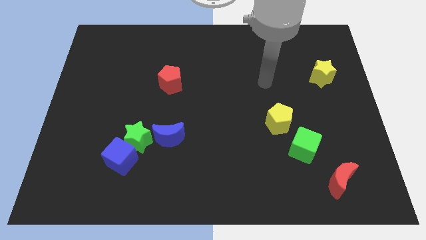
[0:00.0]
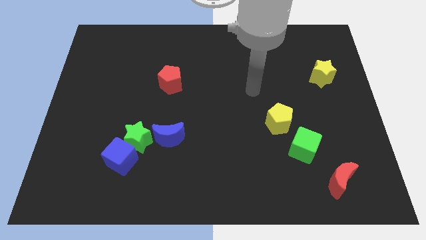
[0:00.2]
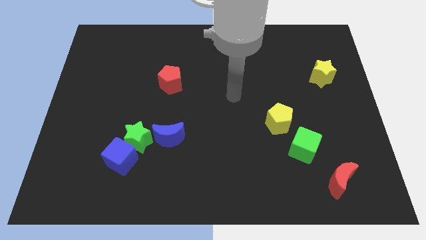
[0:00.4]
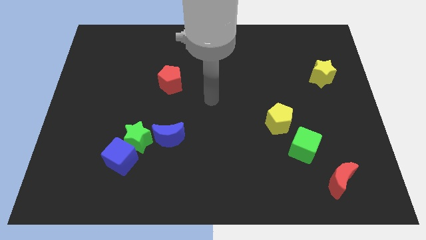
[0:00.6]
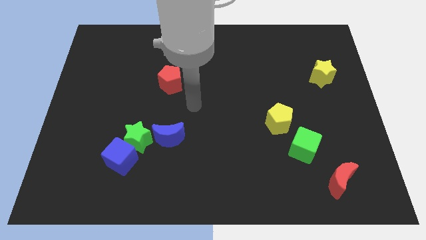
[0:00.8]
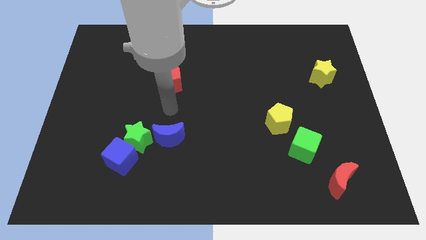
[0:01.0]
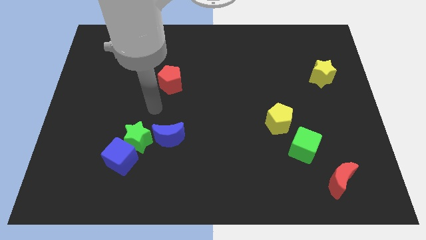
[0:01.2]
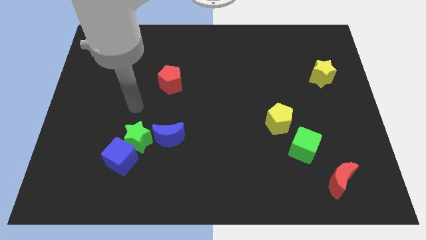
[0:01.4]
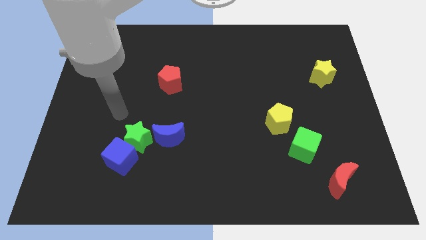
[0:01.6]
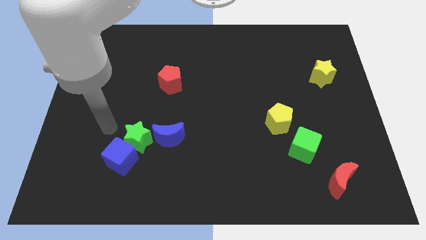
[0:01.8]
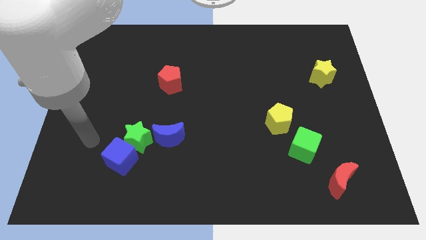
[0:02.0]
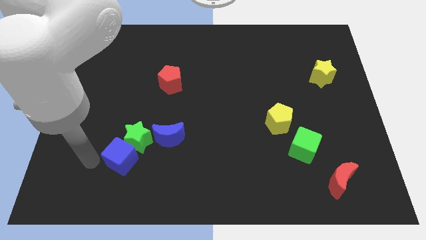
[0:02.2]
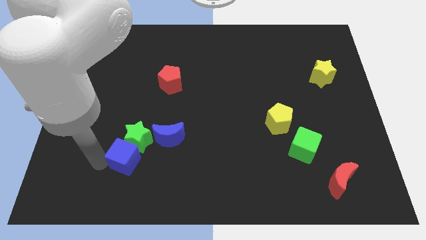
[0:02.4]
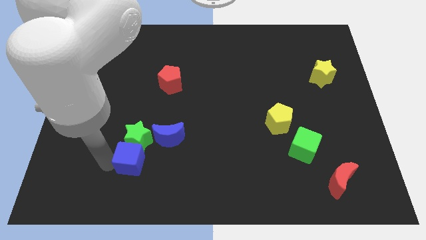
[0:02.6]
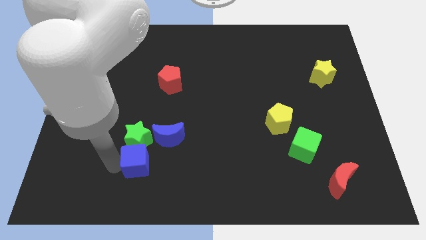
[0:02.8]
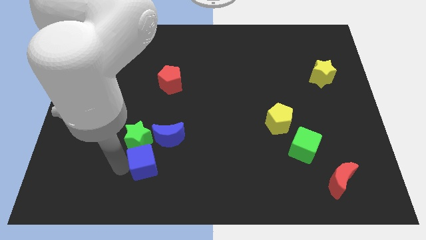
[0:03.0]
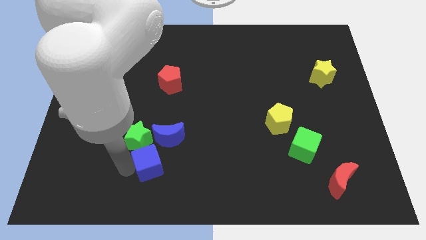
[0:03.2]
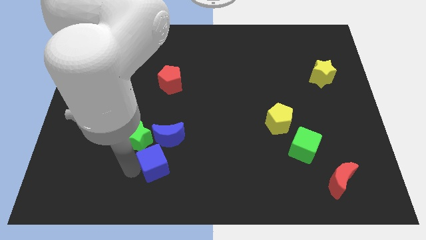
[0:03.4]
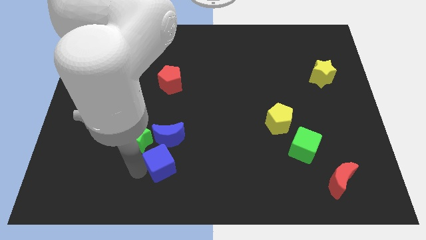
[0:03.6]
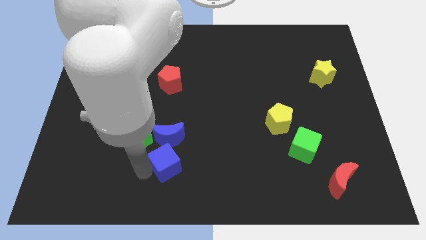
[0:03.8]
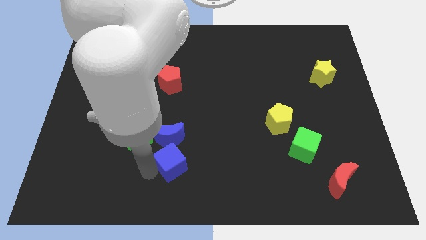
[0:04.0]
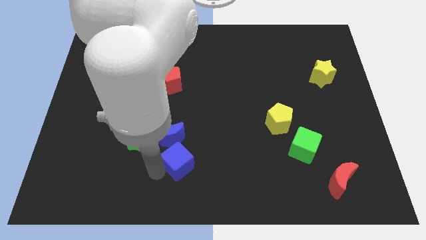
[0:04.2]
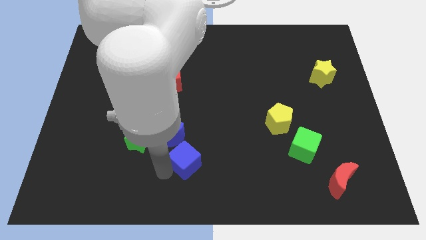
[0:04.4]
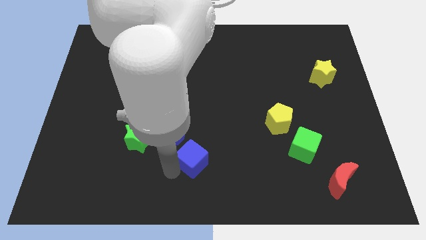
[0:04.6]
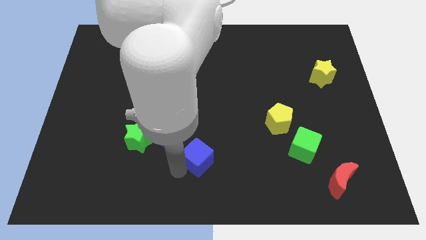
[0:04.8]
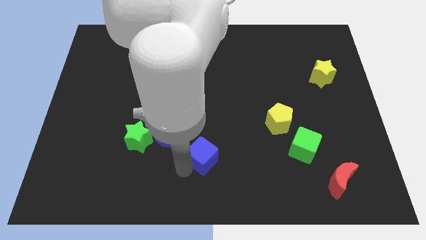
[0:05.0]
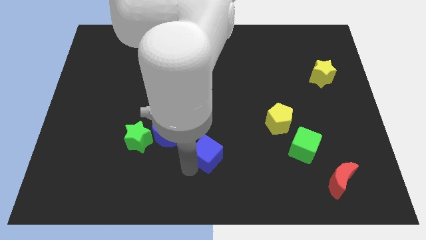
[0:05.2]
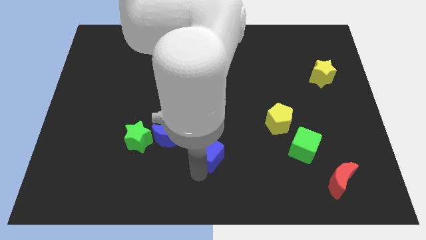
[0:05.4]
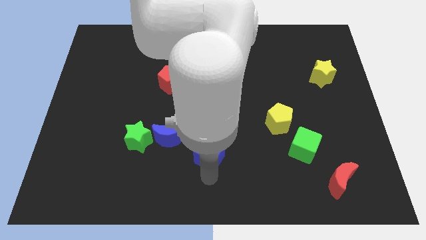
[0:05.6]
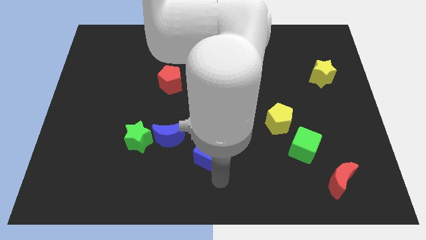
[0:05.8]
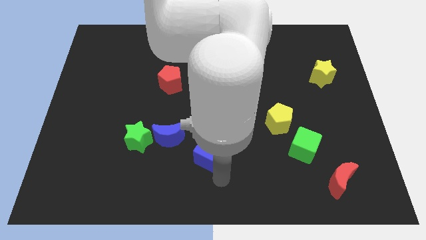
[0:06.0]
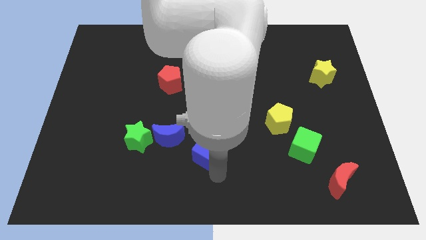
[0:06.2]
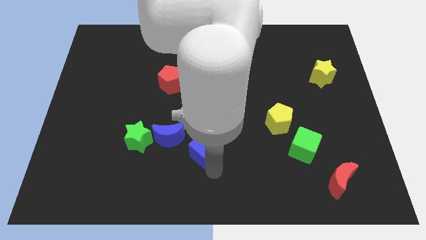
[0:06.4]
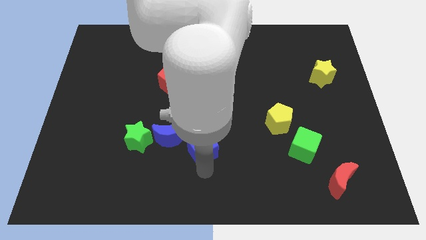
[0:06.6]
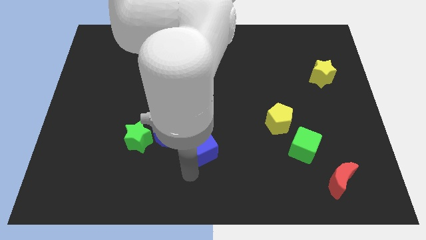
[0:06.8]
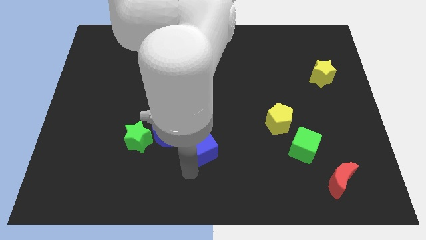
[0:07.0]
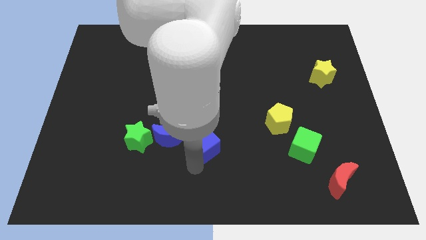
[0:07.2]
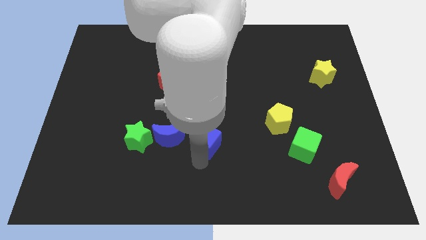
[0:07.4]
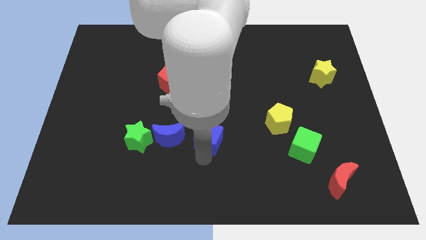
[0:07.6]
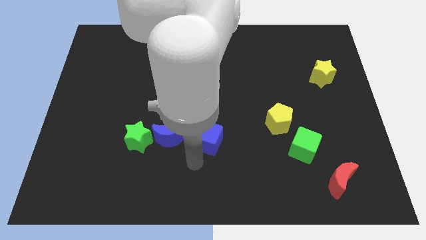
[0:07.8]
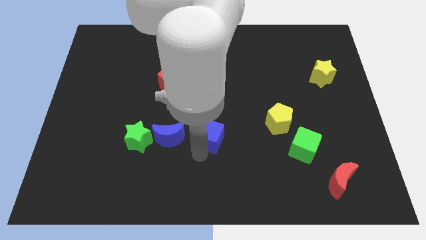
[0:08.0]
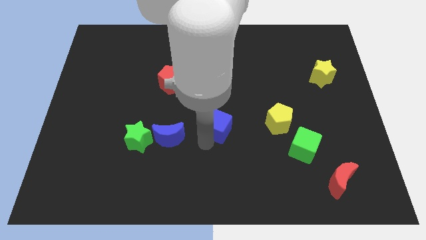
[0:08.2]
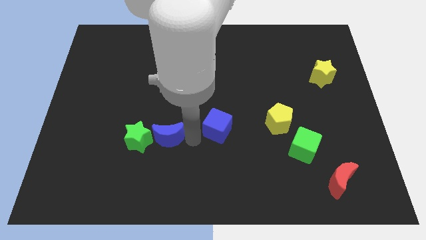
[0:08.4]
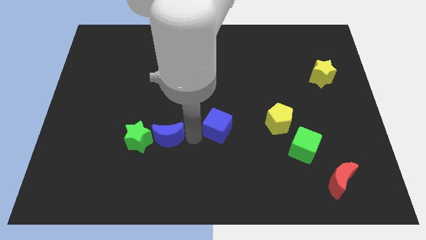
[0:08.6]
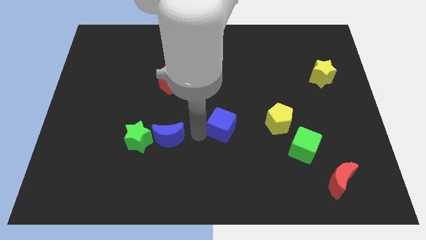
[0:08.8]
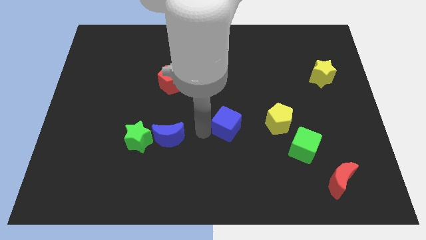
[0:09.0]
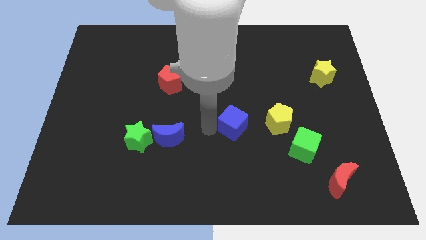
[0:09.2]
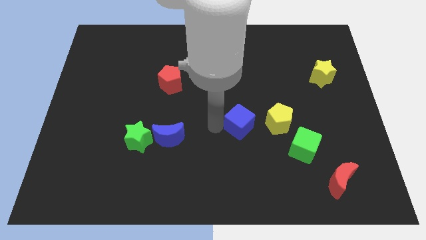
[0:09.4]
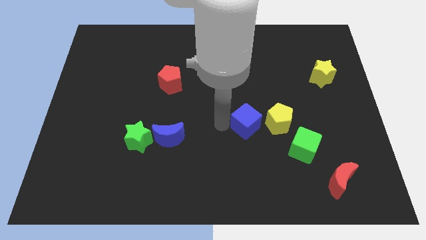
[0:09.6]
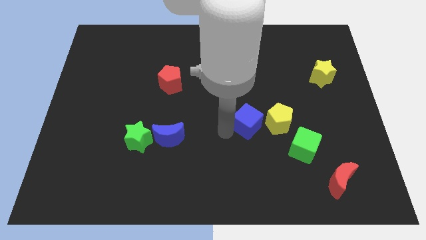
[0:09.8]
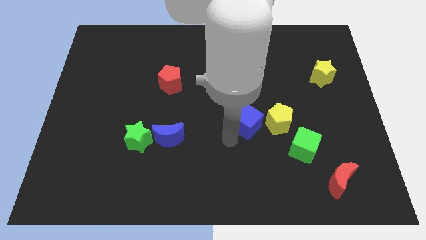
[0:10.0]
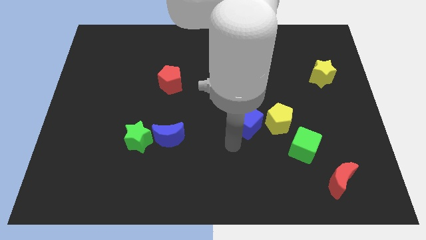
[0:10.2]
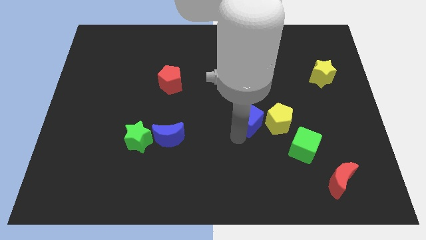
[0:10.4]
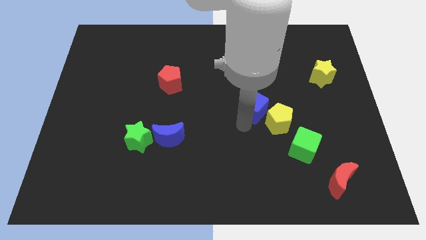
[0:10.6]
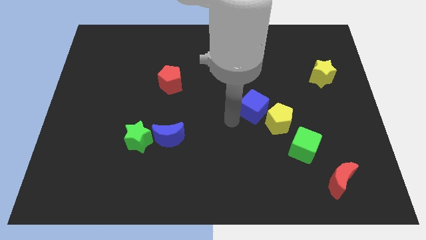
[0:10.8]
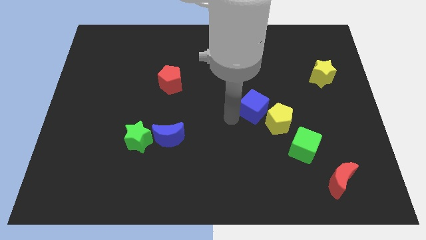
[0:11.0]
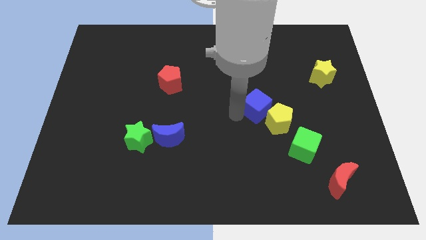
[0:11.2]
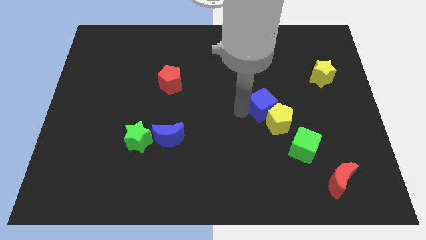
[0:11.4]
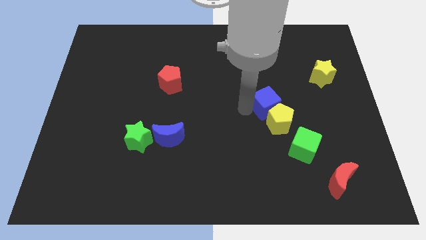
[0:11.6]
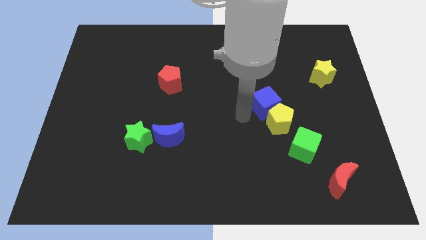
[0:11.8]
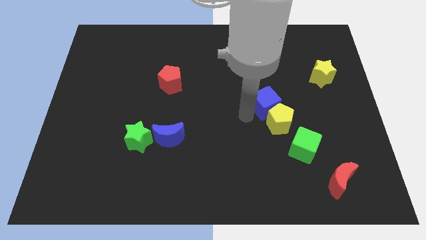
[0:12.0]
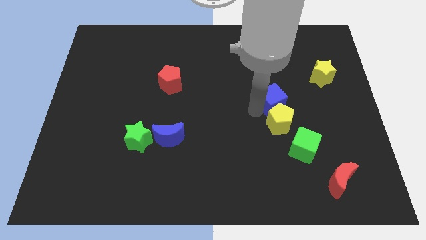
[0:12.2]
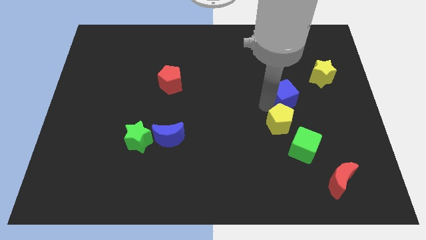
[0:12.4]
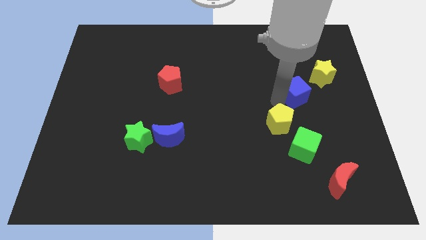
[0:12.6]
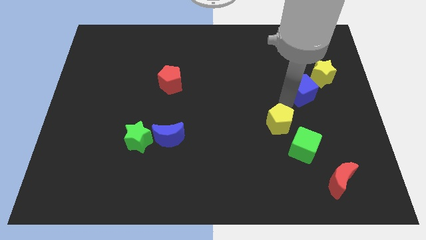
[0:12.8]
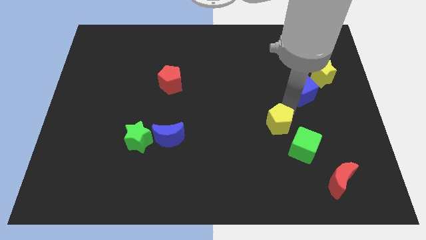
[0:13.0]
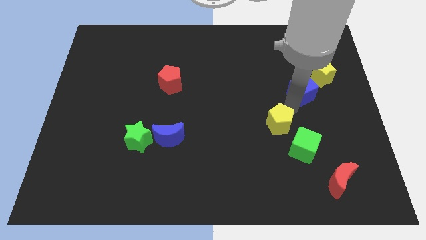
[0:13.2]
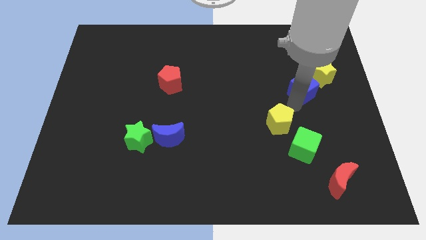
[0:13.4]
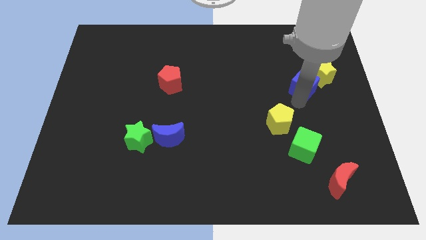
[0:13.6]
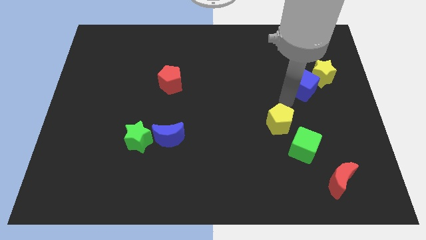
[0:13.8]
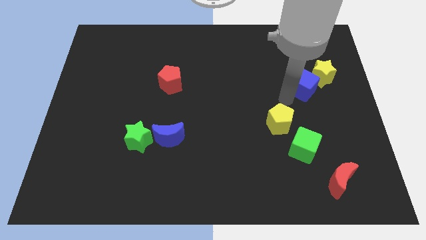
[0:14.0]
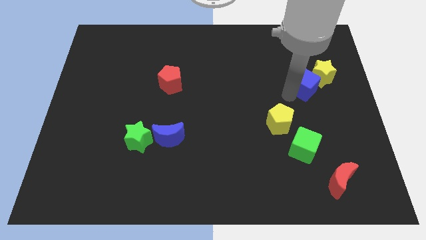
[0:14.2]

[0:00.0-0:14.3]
slide the blue cube close to the yellow star
